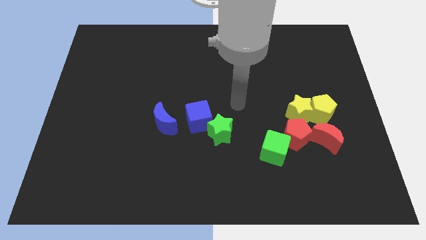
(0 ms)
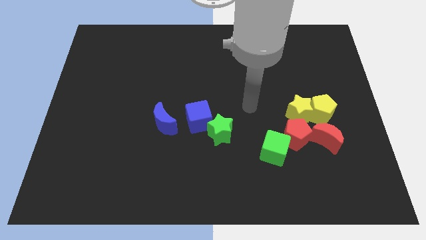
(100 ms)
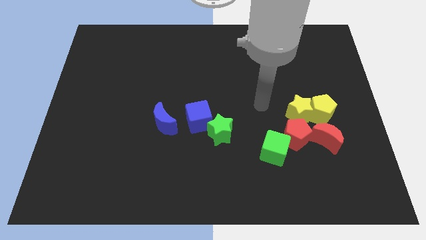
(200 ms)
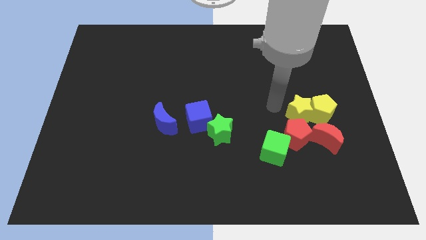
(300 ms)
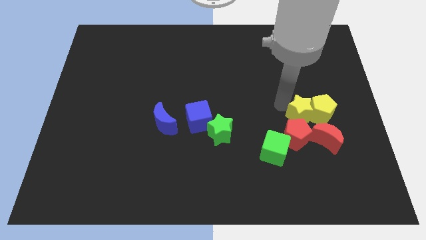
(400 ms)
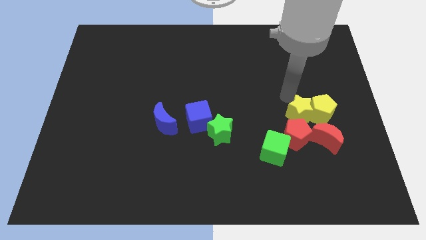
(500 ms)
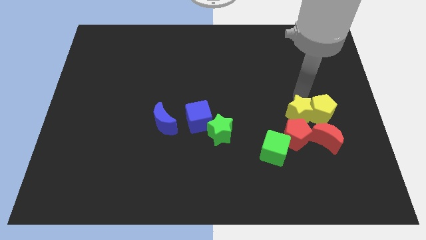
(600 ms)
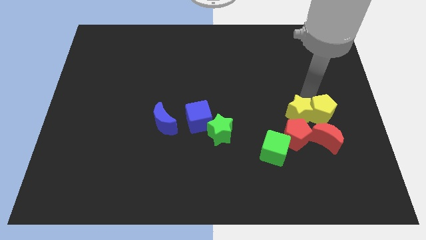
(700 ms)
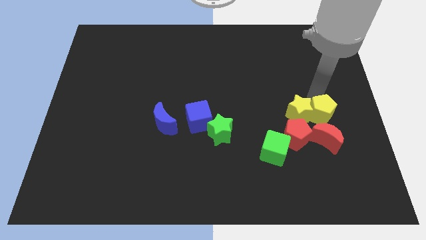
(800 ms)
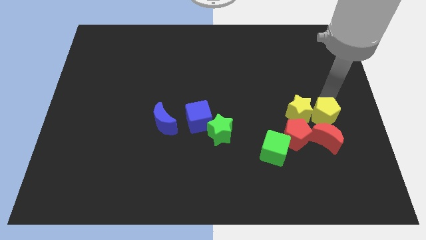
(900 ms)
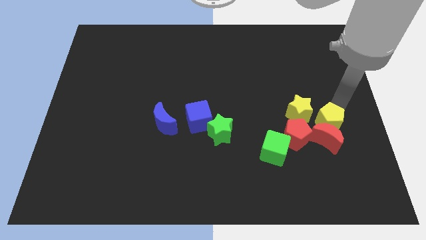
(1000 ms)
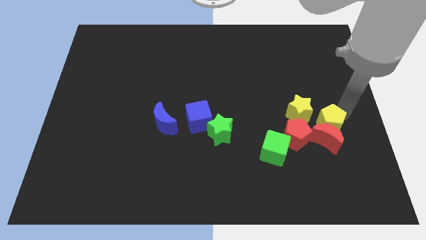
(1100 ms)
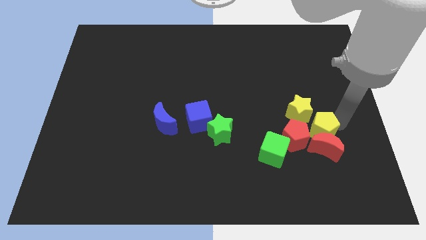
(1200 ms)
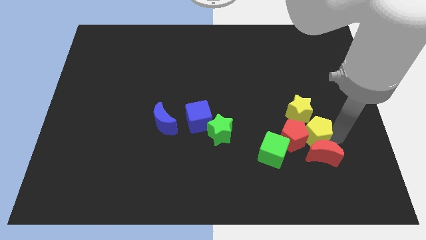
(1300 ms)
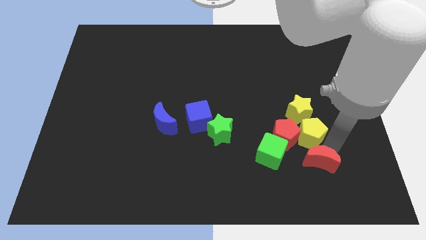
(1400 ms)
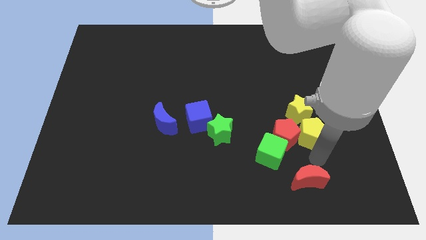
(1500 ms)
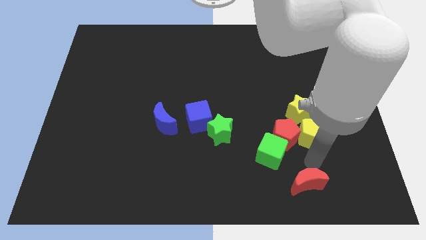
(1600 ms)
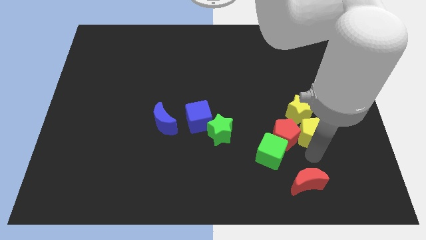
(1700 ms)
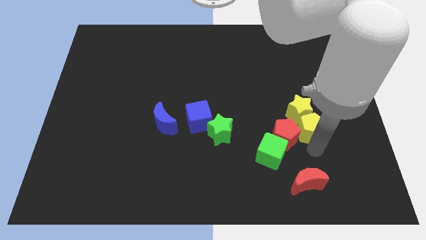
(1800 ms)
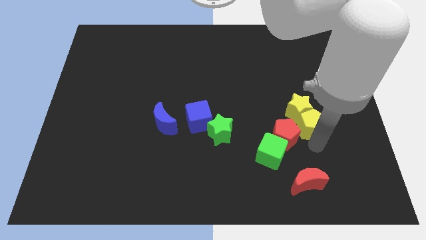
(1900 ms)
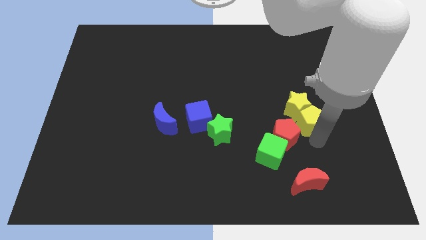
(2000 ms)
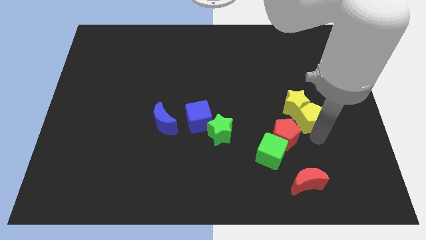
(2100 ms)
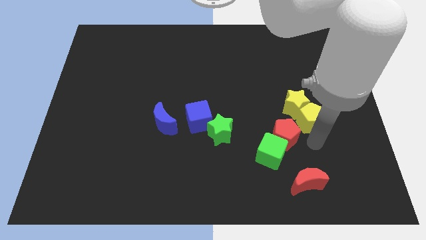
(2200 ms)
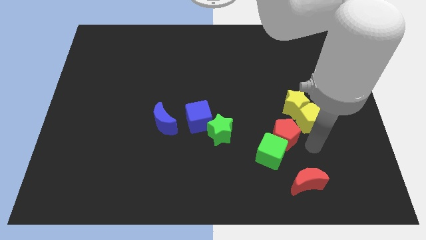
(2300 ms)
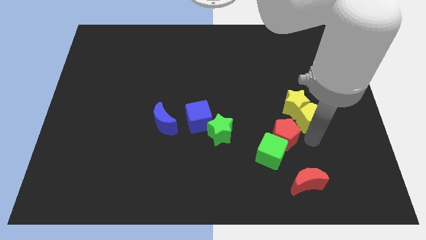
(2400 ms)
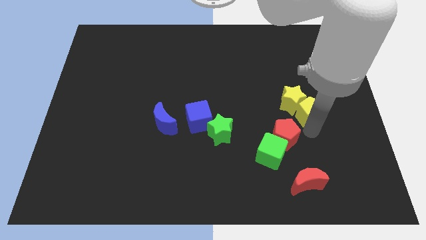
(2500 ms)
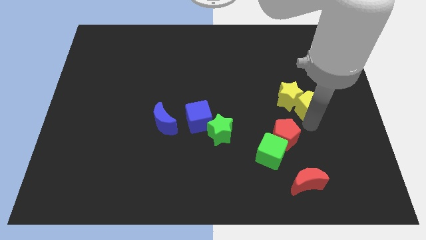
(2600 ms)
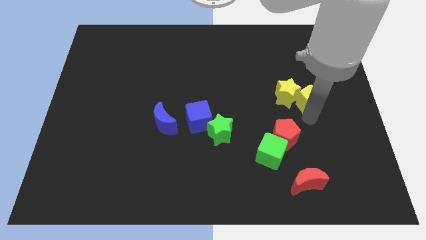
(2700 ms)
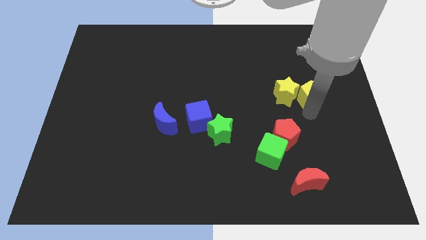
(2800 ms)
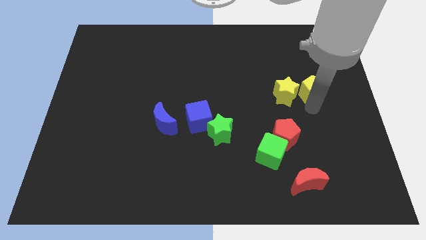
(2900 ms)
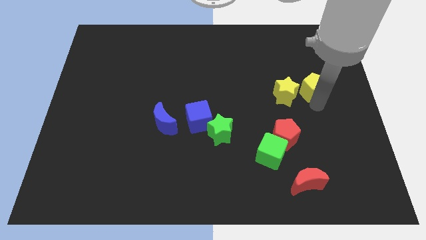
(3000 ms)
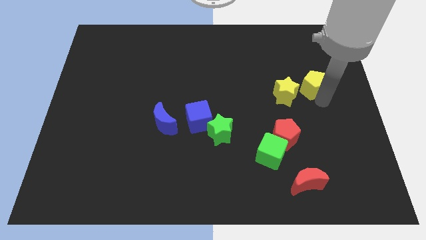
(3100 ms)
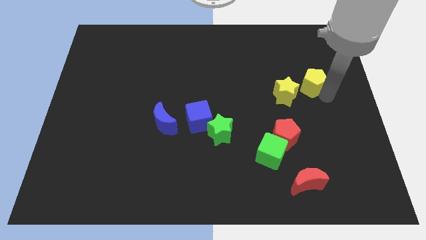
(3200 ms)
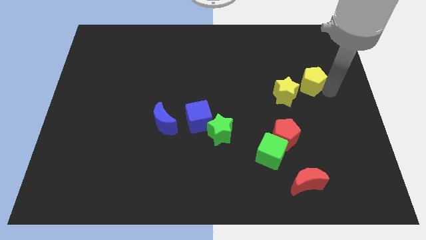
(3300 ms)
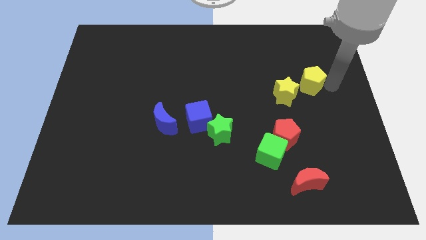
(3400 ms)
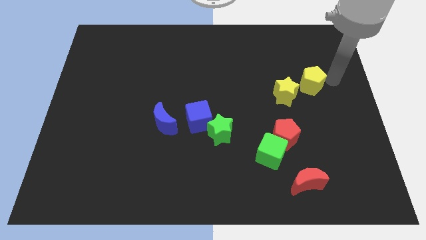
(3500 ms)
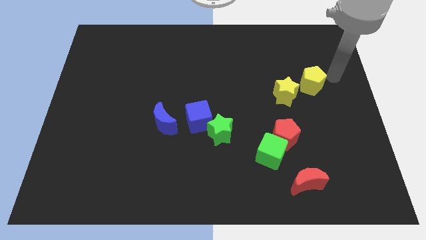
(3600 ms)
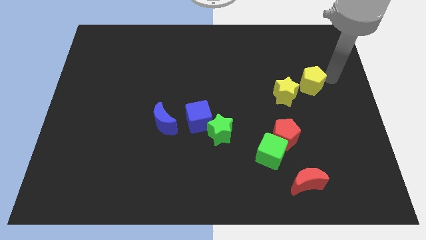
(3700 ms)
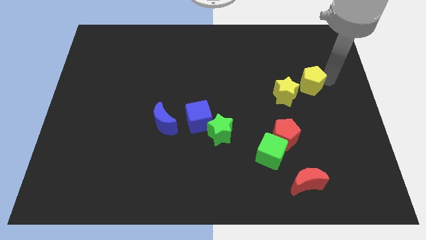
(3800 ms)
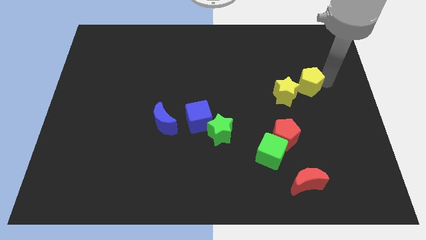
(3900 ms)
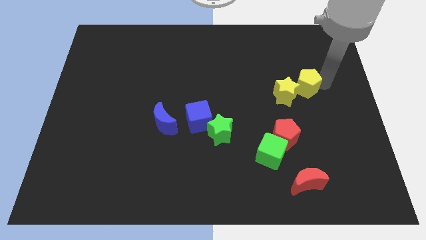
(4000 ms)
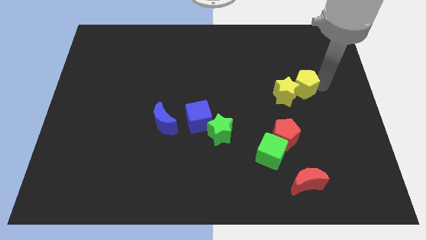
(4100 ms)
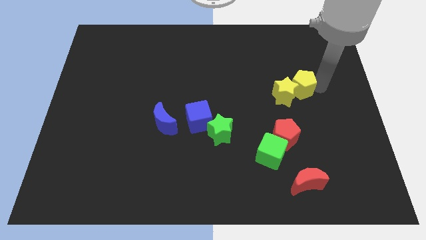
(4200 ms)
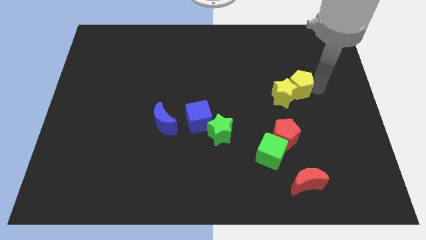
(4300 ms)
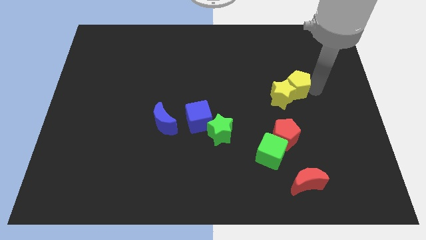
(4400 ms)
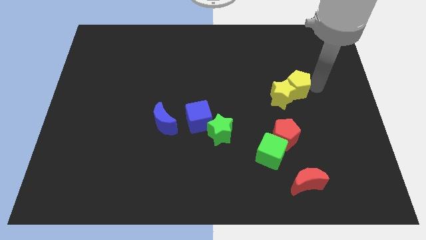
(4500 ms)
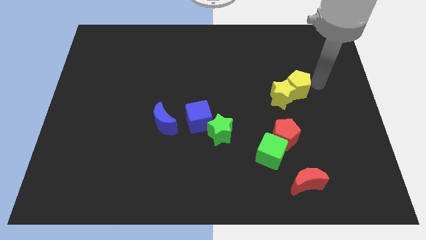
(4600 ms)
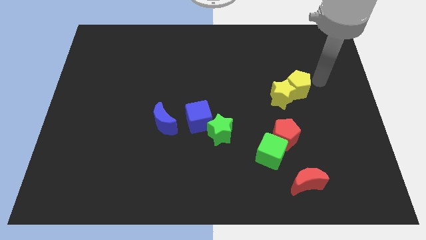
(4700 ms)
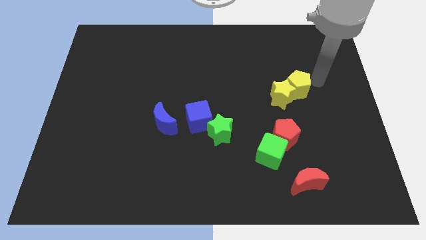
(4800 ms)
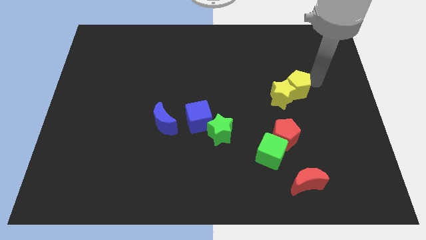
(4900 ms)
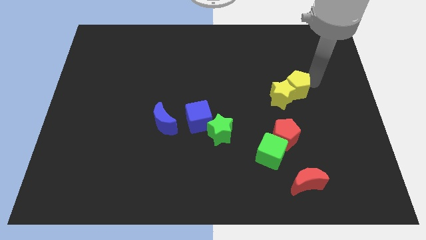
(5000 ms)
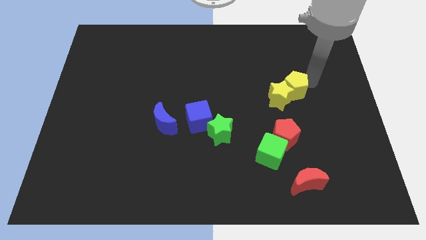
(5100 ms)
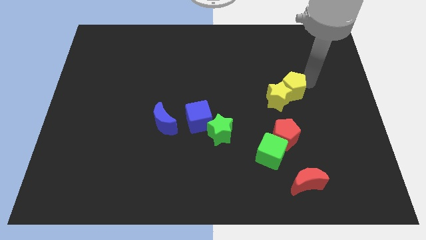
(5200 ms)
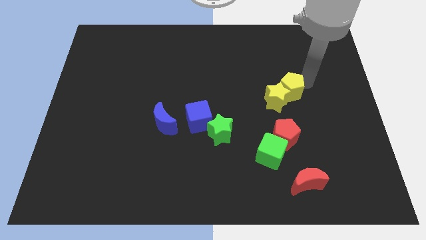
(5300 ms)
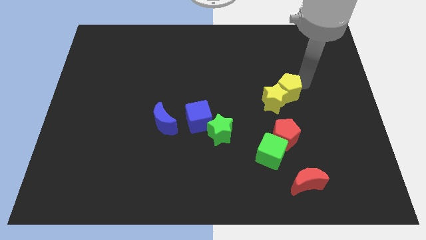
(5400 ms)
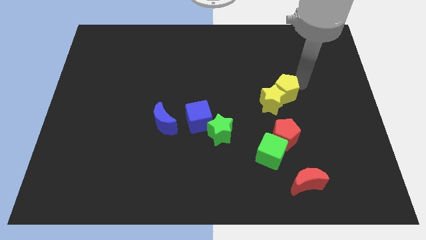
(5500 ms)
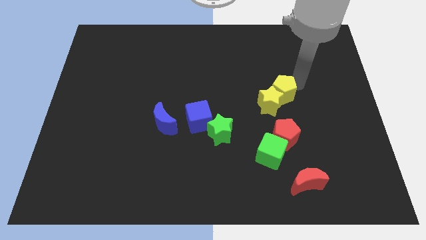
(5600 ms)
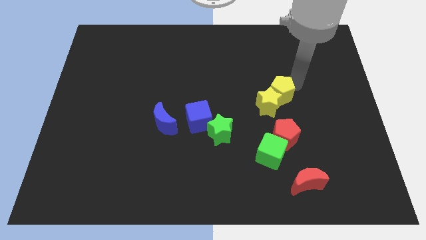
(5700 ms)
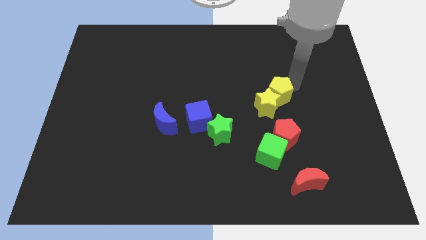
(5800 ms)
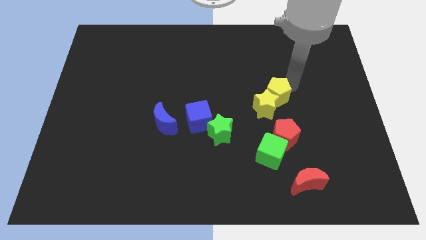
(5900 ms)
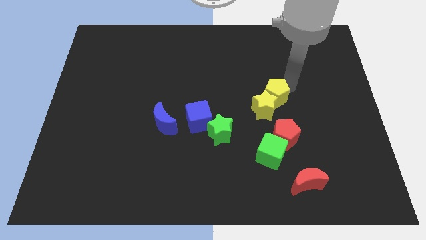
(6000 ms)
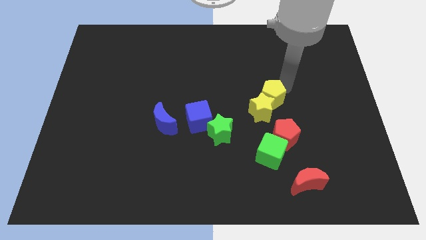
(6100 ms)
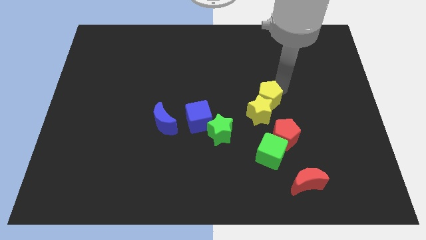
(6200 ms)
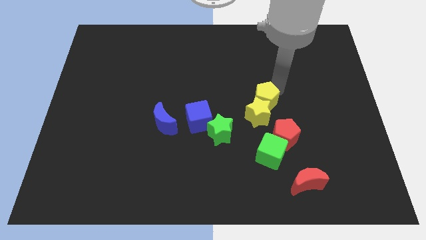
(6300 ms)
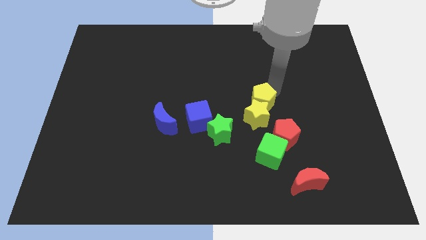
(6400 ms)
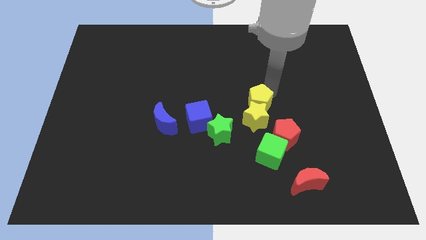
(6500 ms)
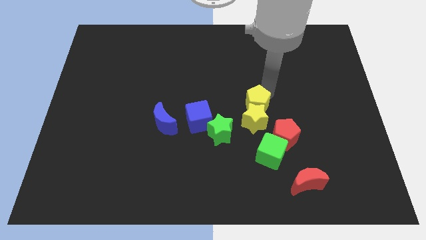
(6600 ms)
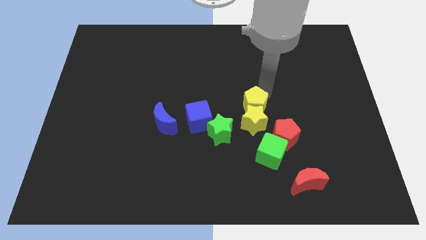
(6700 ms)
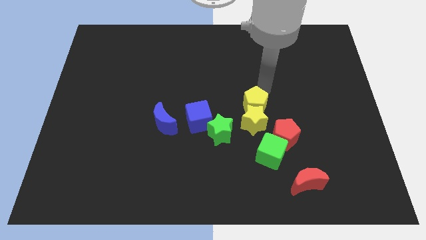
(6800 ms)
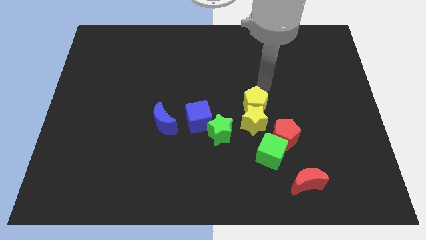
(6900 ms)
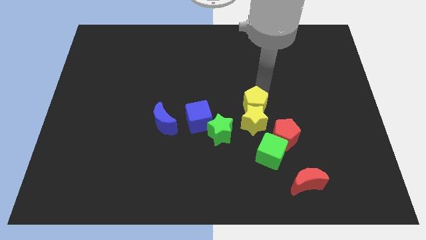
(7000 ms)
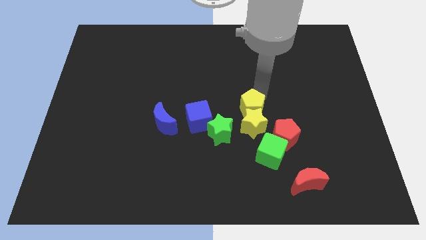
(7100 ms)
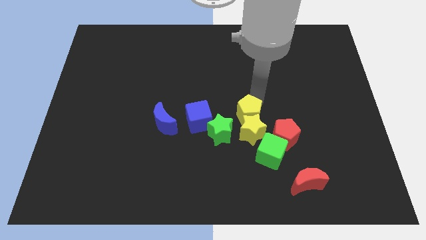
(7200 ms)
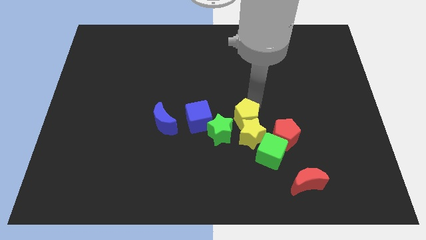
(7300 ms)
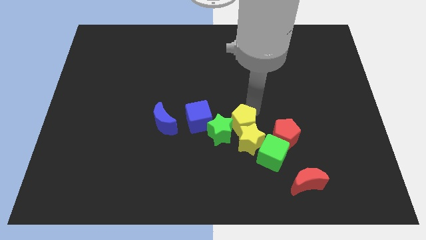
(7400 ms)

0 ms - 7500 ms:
push the yellow pentagon to the green star
